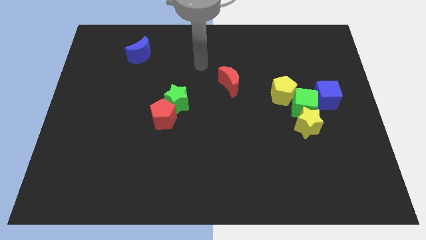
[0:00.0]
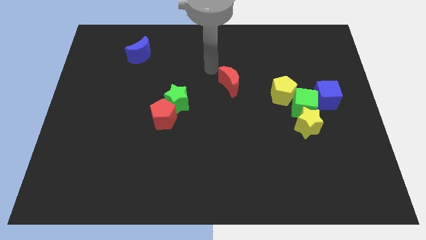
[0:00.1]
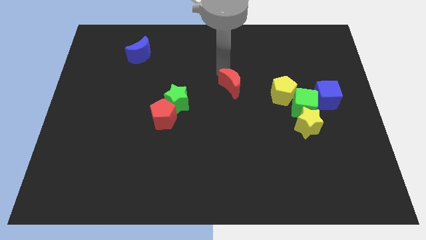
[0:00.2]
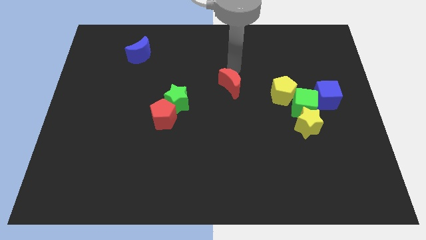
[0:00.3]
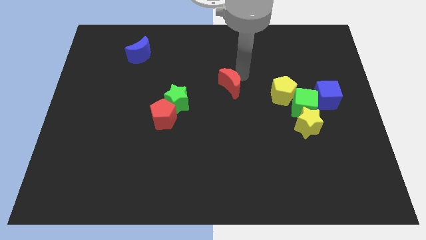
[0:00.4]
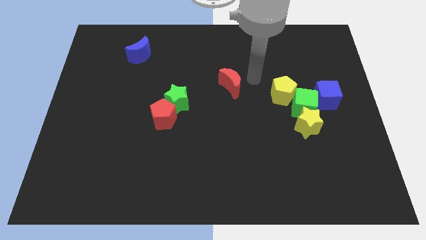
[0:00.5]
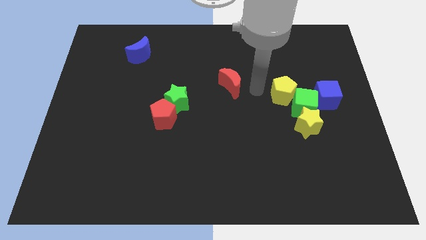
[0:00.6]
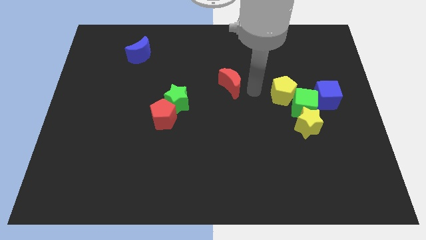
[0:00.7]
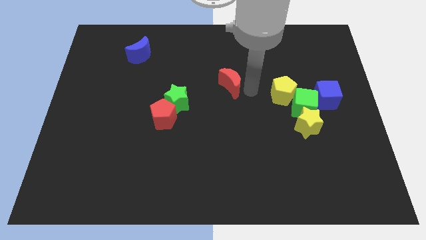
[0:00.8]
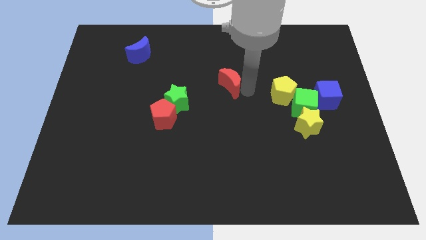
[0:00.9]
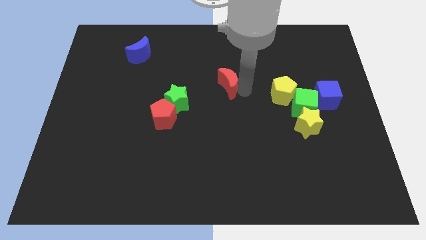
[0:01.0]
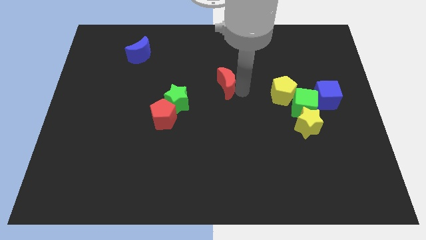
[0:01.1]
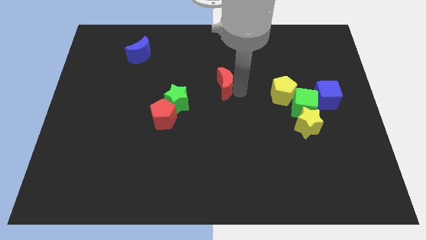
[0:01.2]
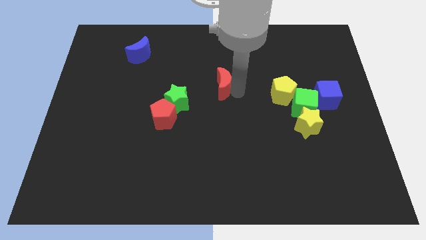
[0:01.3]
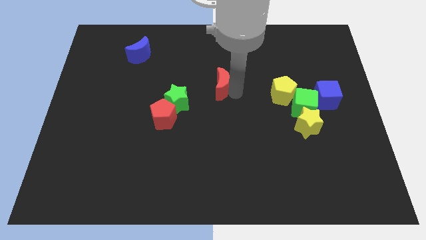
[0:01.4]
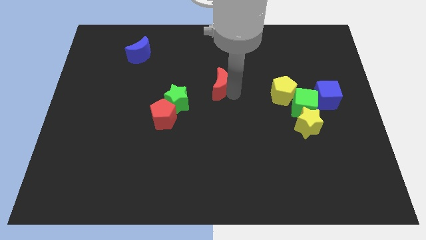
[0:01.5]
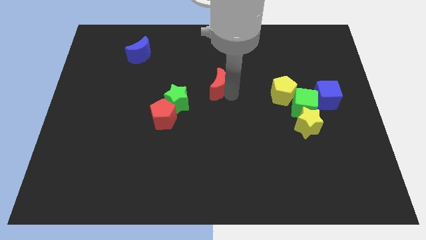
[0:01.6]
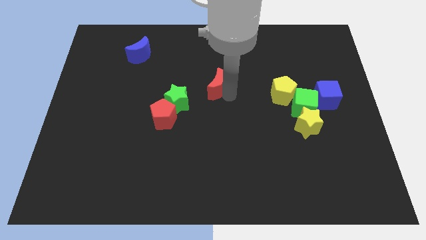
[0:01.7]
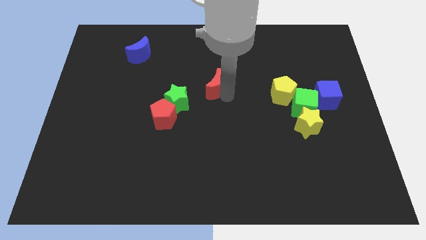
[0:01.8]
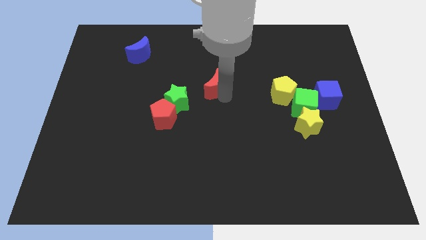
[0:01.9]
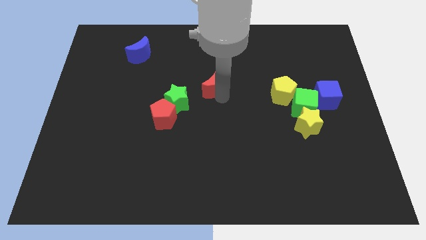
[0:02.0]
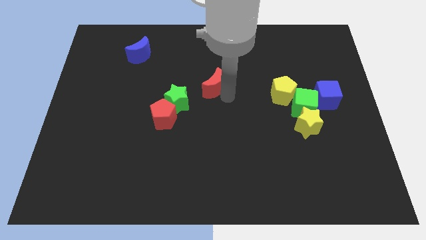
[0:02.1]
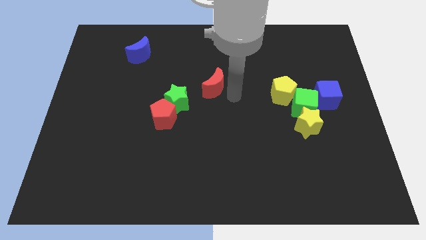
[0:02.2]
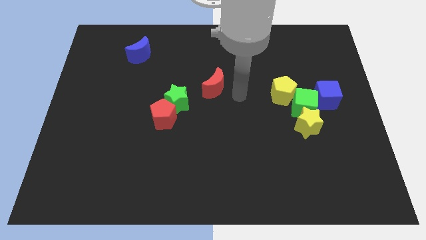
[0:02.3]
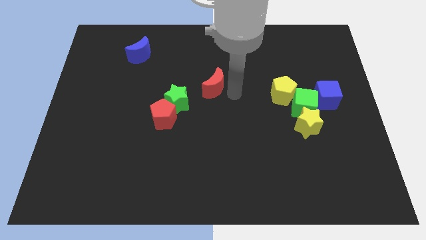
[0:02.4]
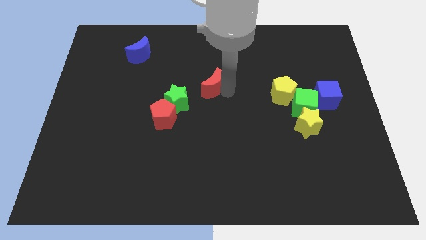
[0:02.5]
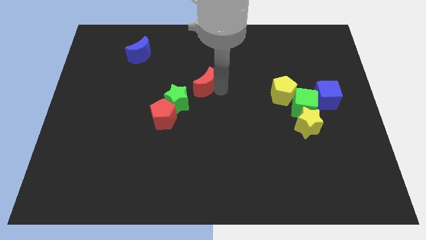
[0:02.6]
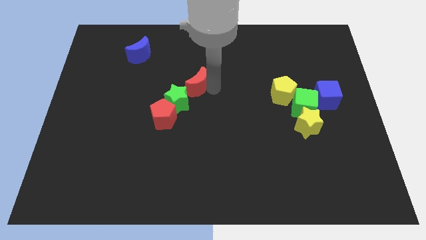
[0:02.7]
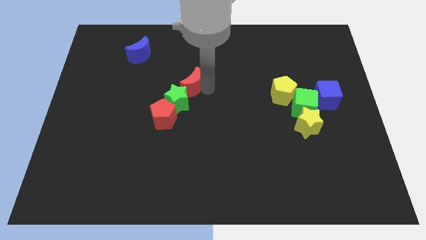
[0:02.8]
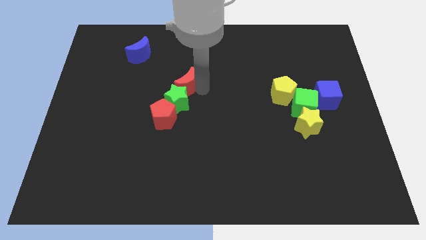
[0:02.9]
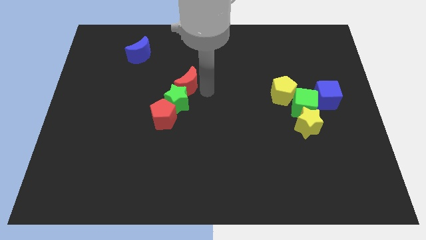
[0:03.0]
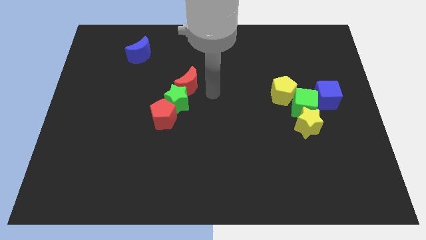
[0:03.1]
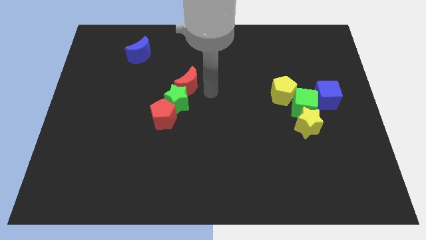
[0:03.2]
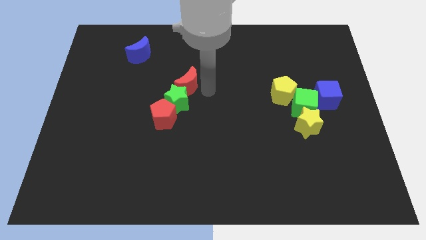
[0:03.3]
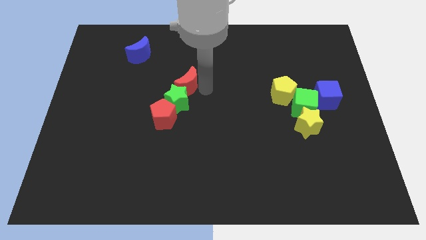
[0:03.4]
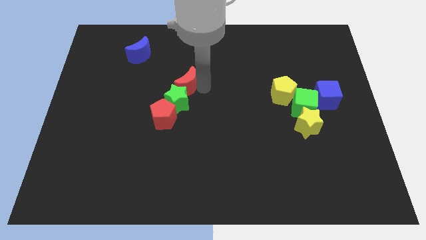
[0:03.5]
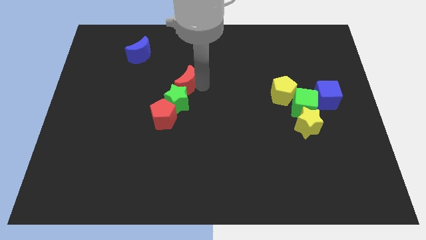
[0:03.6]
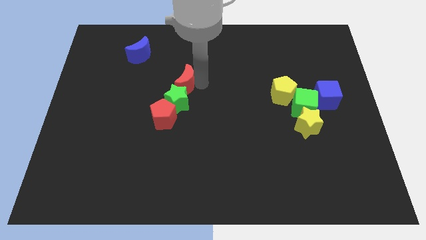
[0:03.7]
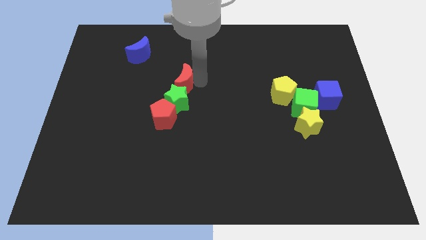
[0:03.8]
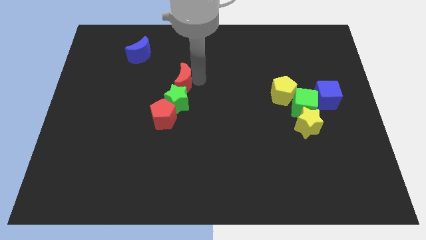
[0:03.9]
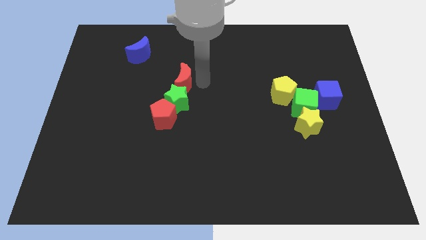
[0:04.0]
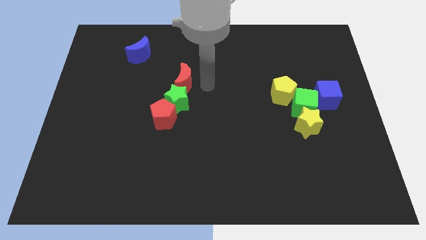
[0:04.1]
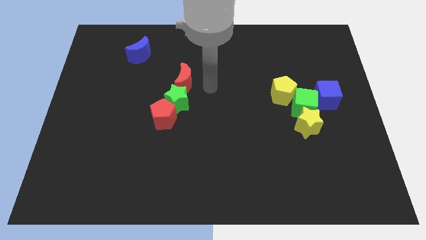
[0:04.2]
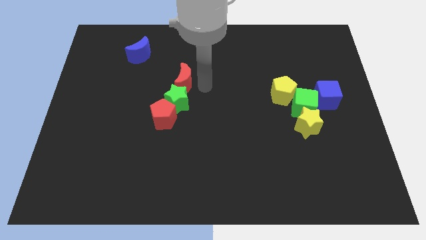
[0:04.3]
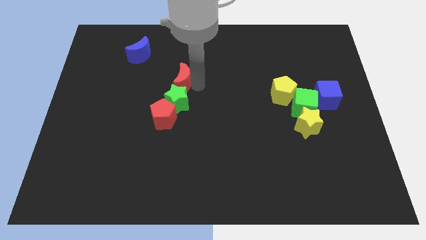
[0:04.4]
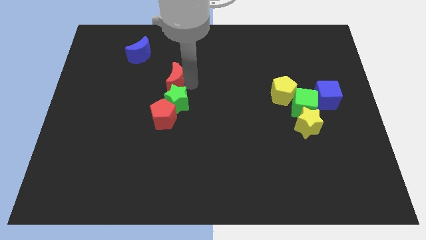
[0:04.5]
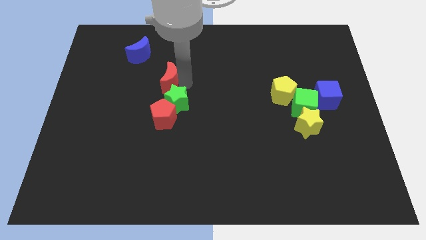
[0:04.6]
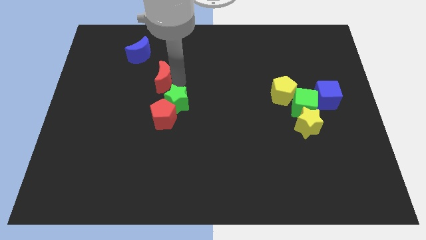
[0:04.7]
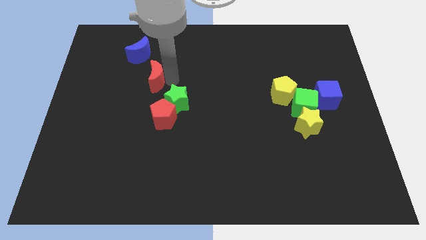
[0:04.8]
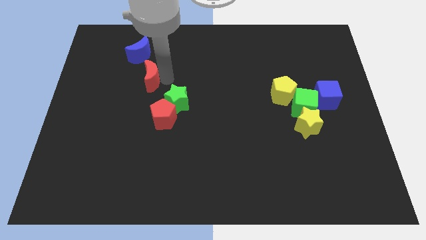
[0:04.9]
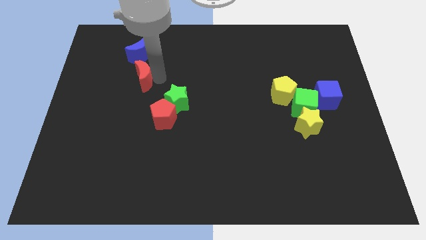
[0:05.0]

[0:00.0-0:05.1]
push the red moon left

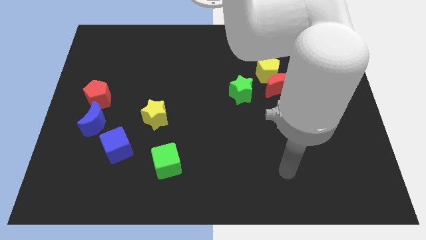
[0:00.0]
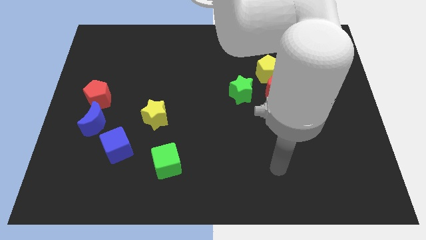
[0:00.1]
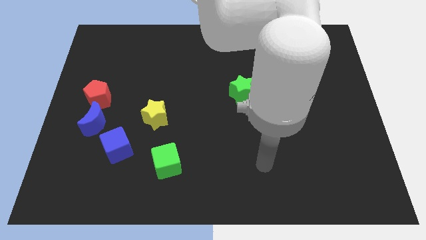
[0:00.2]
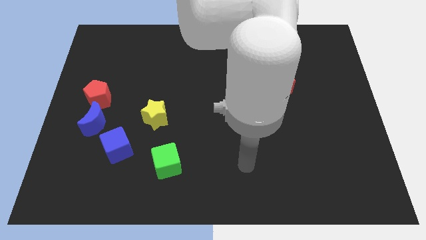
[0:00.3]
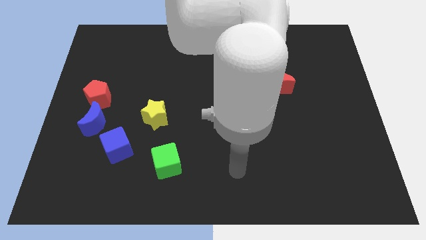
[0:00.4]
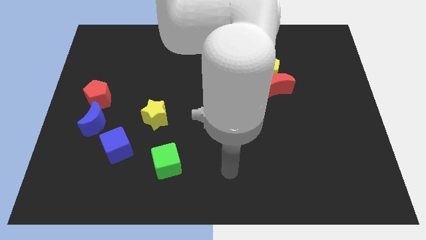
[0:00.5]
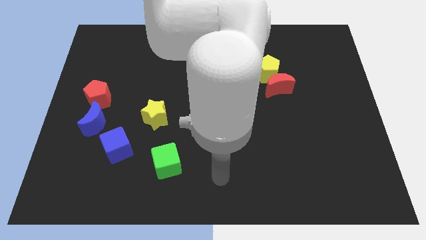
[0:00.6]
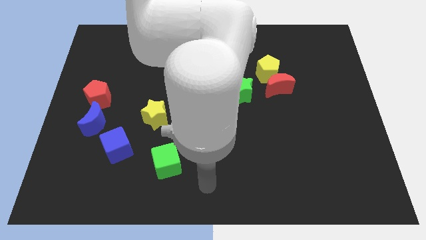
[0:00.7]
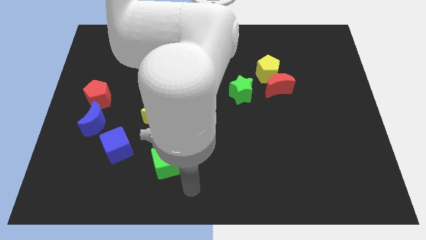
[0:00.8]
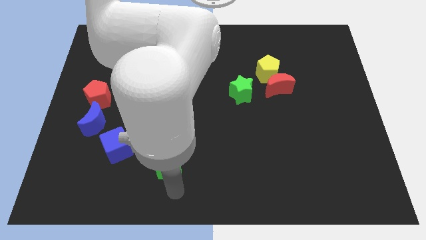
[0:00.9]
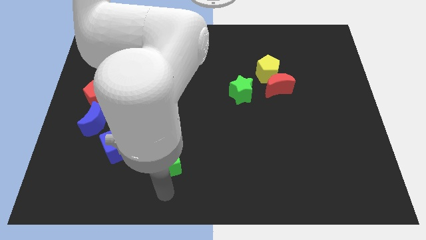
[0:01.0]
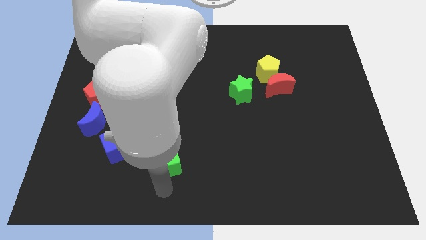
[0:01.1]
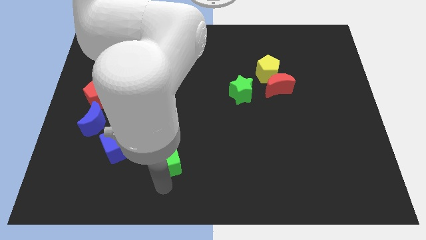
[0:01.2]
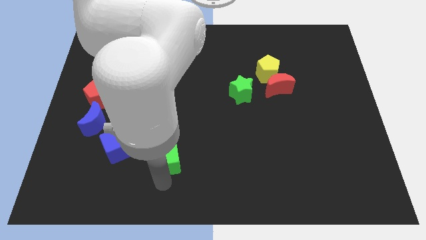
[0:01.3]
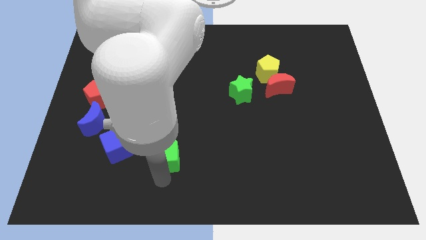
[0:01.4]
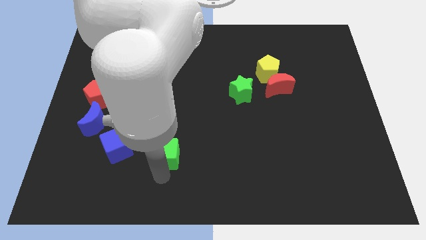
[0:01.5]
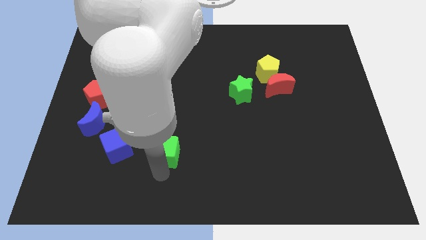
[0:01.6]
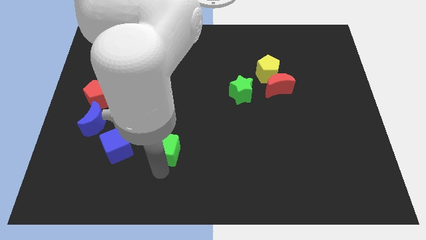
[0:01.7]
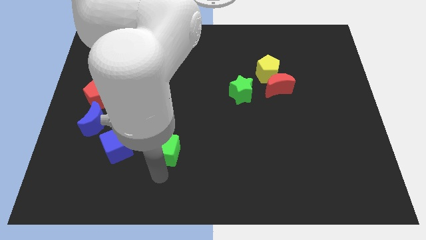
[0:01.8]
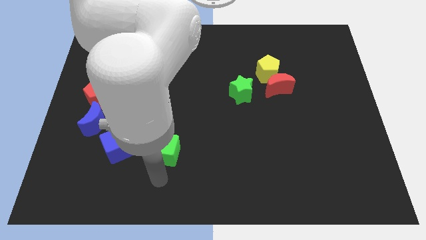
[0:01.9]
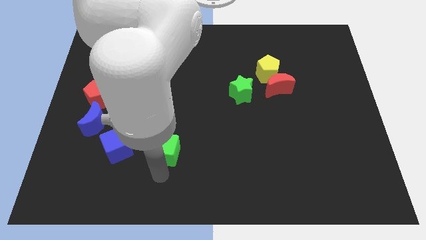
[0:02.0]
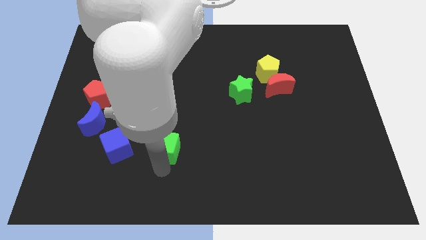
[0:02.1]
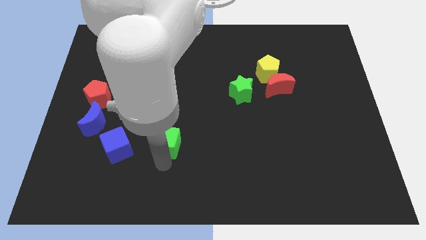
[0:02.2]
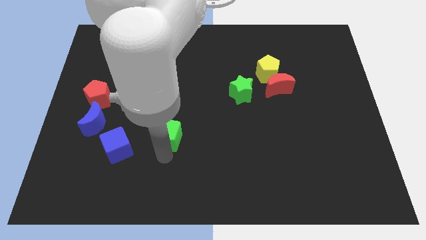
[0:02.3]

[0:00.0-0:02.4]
move the green cube upwards somewhat

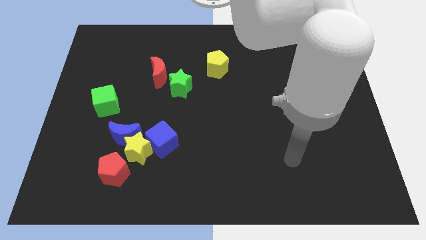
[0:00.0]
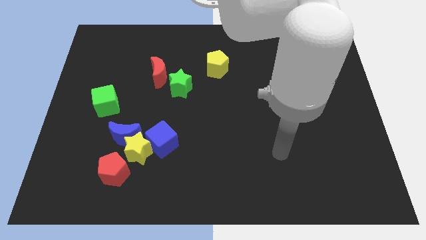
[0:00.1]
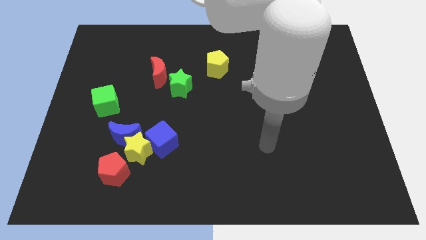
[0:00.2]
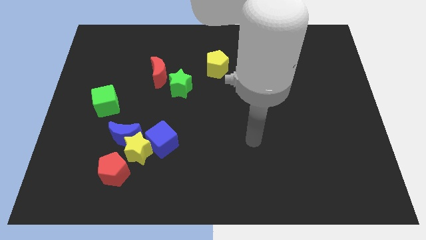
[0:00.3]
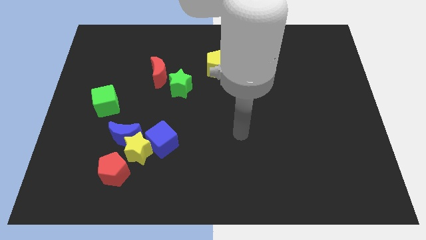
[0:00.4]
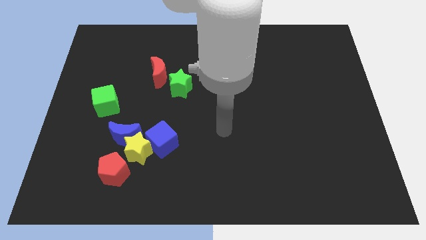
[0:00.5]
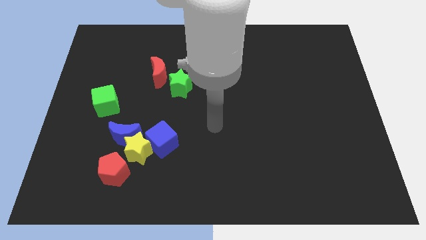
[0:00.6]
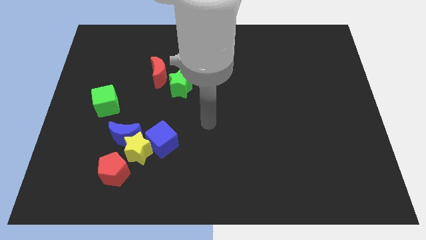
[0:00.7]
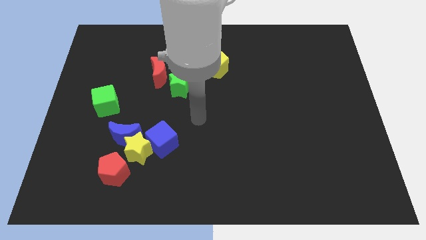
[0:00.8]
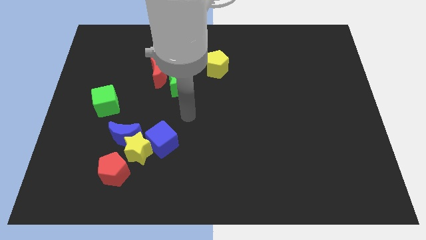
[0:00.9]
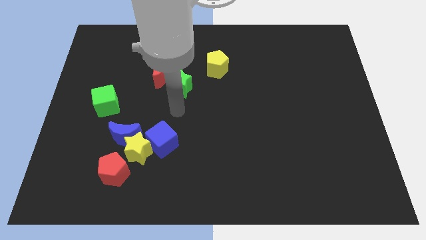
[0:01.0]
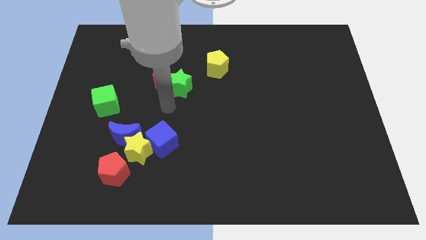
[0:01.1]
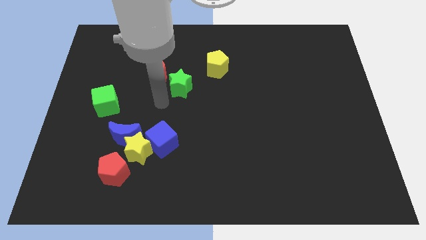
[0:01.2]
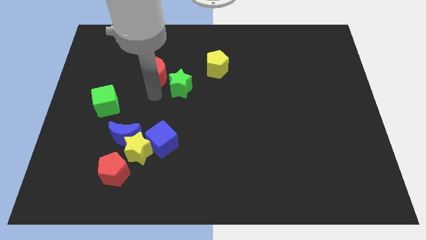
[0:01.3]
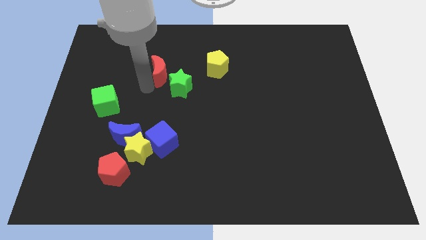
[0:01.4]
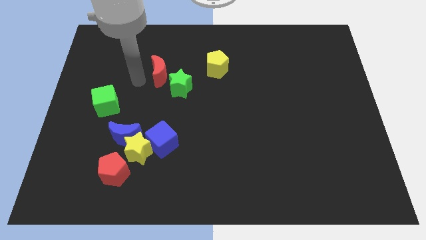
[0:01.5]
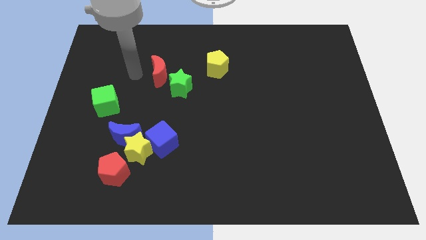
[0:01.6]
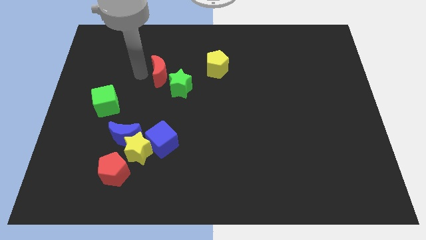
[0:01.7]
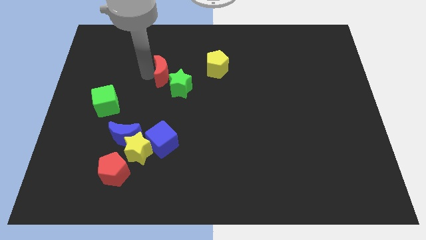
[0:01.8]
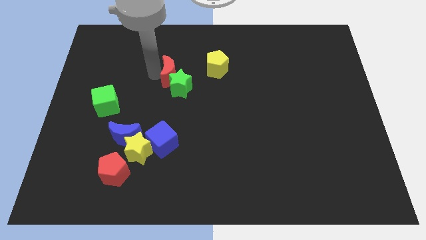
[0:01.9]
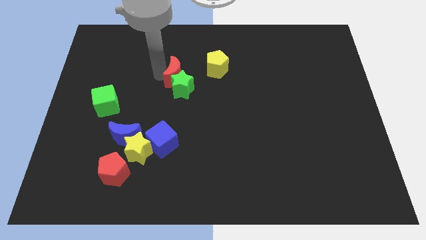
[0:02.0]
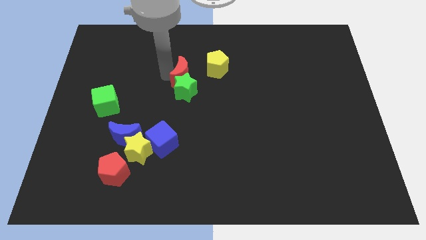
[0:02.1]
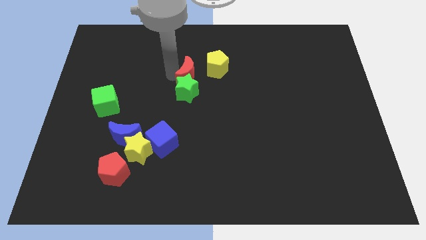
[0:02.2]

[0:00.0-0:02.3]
push the red moon slightly to the right
